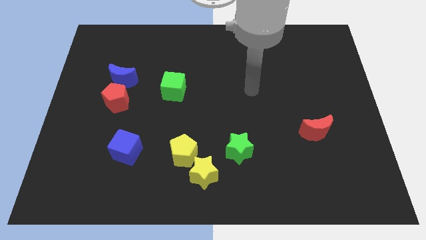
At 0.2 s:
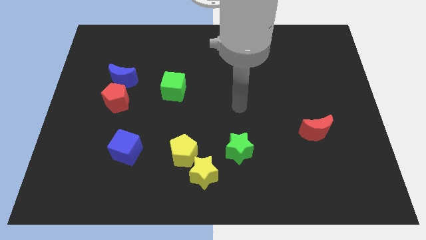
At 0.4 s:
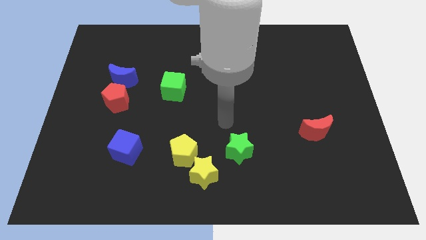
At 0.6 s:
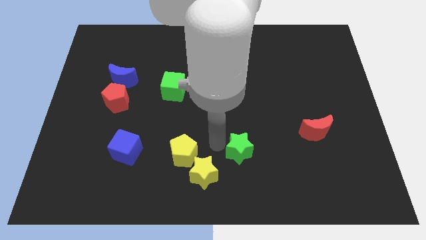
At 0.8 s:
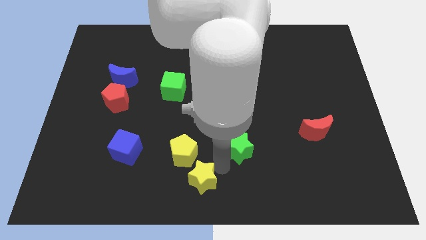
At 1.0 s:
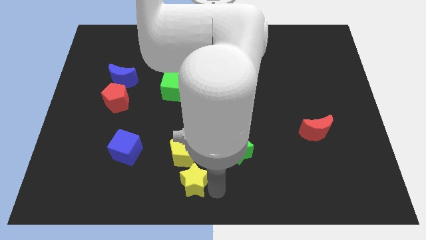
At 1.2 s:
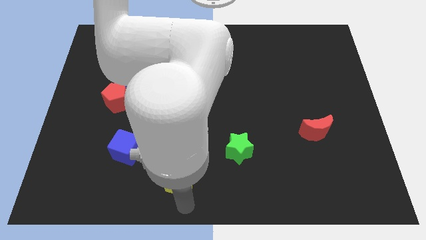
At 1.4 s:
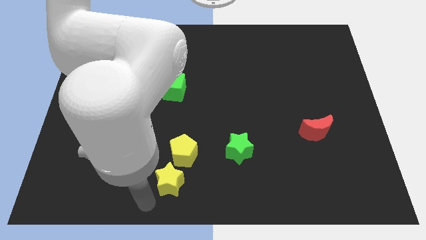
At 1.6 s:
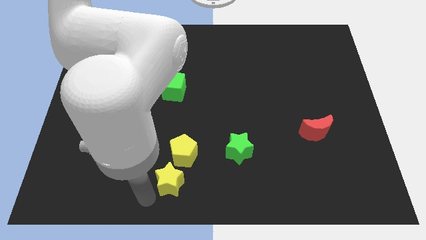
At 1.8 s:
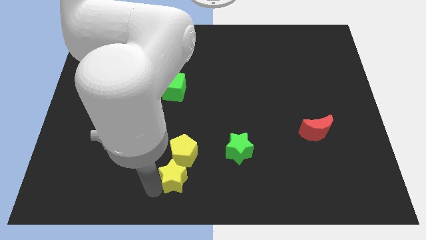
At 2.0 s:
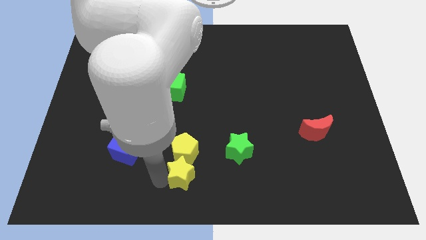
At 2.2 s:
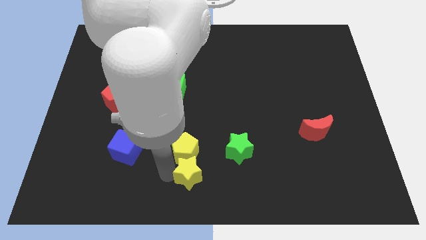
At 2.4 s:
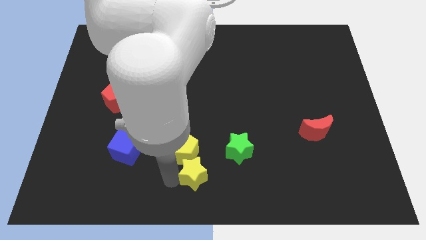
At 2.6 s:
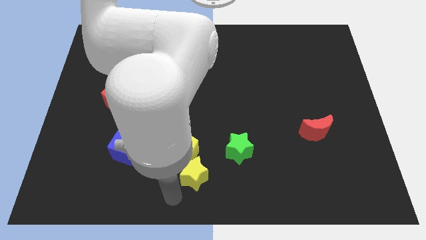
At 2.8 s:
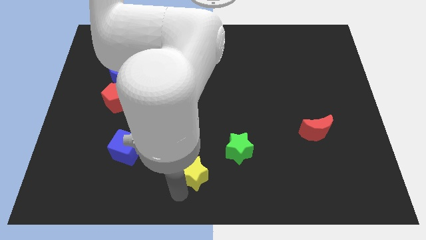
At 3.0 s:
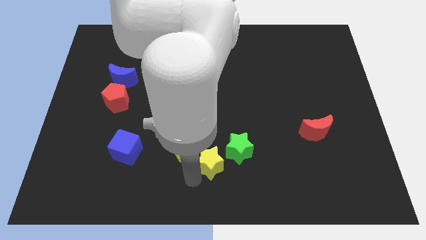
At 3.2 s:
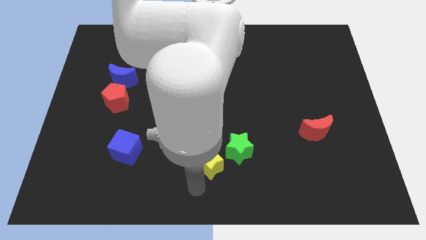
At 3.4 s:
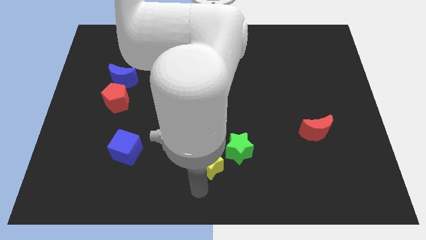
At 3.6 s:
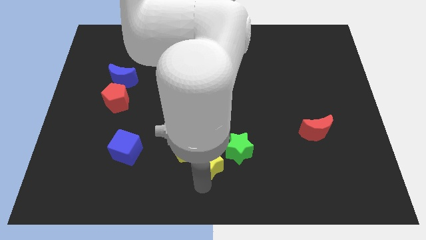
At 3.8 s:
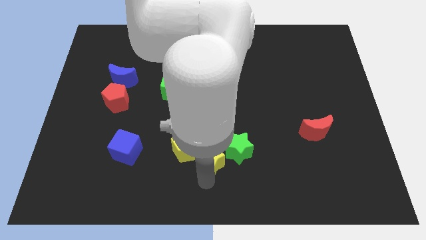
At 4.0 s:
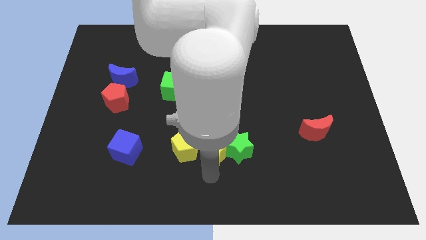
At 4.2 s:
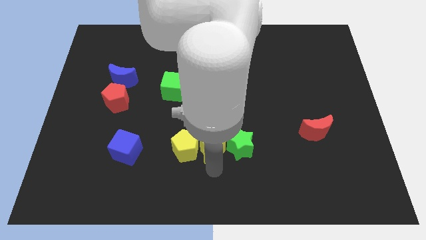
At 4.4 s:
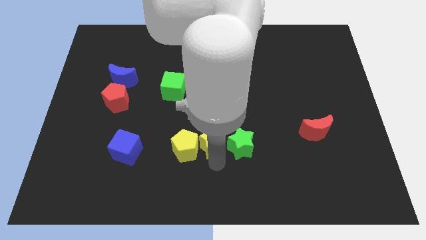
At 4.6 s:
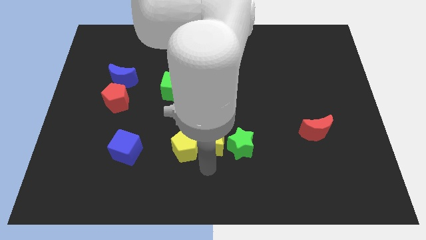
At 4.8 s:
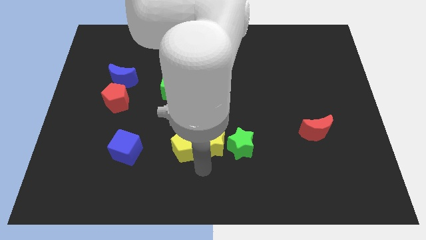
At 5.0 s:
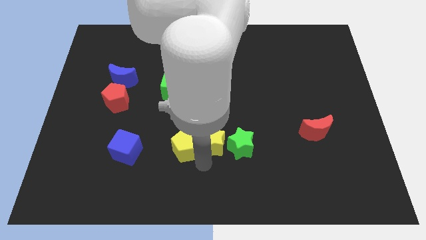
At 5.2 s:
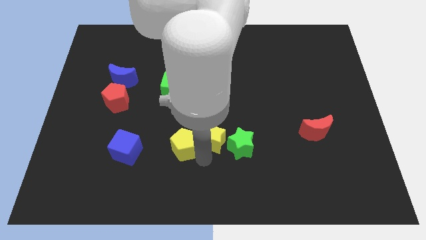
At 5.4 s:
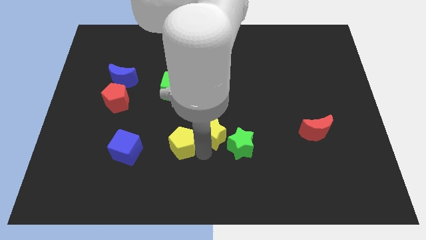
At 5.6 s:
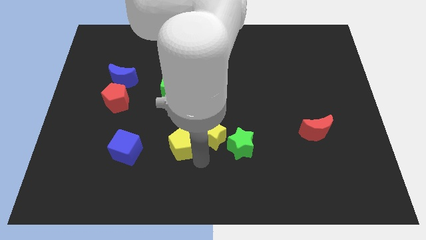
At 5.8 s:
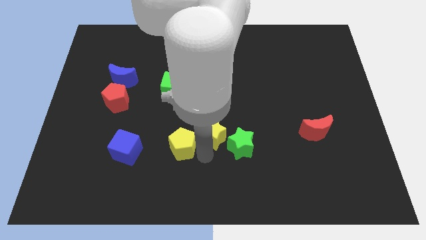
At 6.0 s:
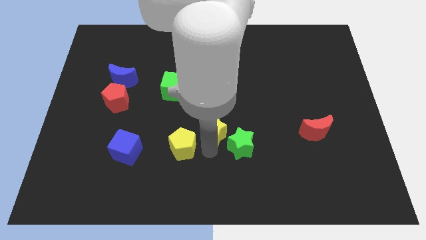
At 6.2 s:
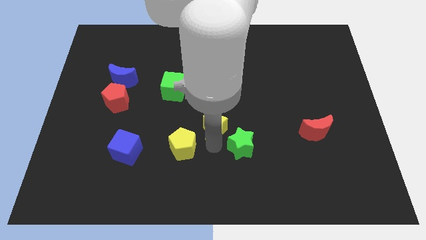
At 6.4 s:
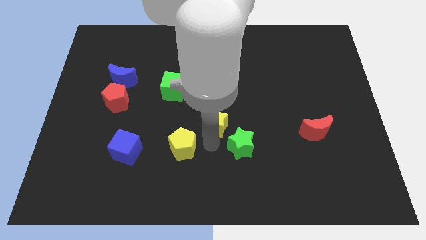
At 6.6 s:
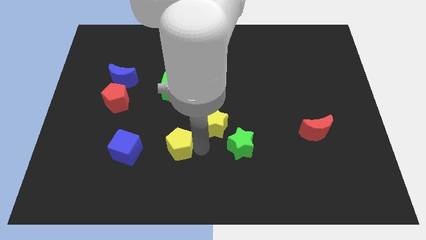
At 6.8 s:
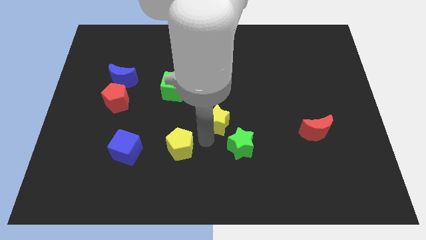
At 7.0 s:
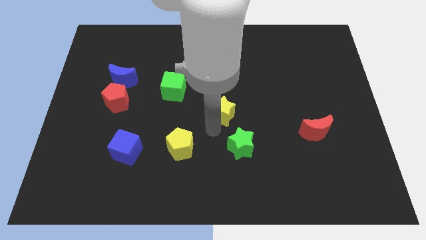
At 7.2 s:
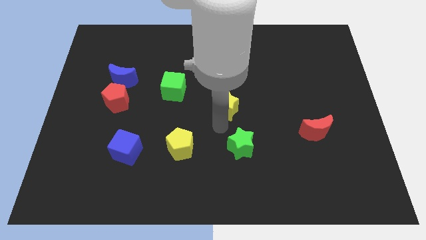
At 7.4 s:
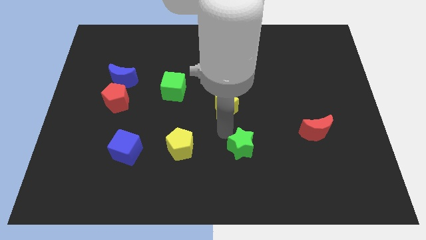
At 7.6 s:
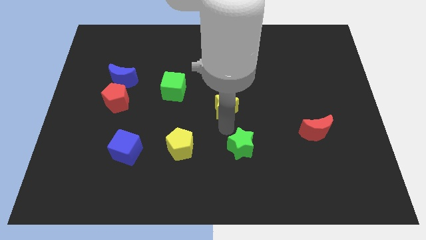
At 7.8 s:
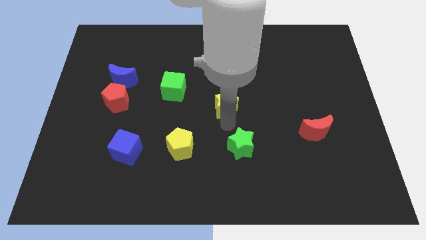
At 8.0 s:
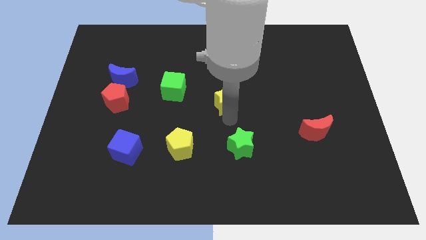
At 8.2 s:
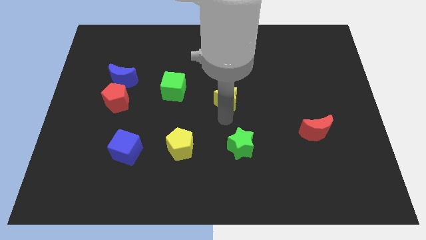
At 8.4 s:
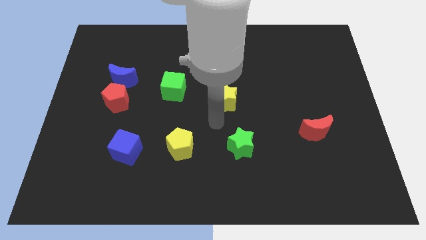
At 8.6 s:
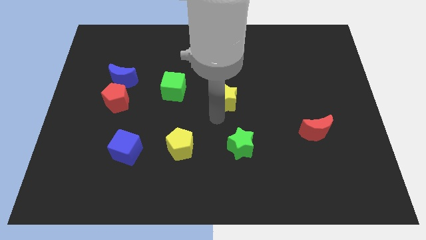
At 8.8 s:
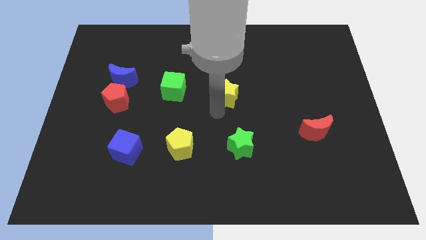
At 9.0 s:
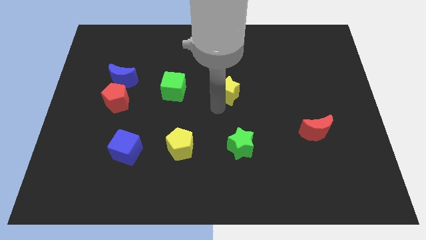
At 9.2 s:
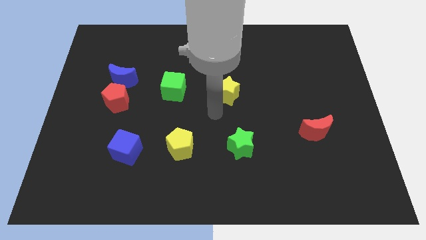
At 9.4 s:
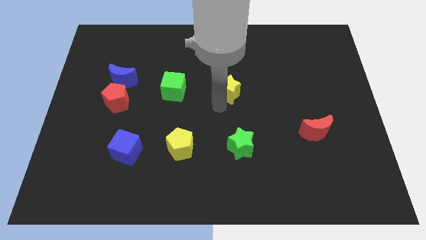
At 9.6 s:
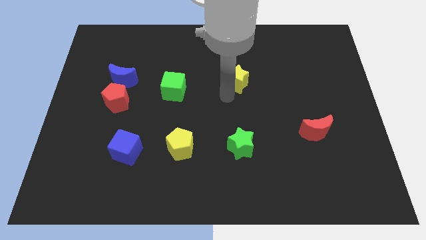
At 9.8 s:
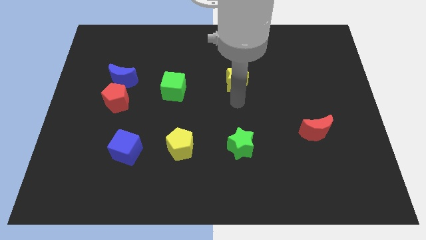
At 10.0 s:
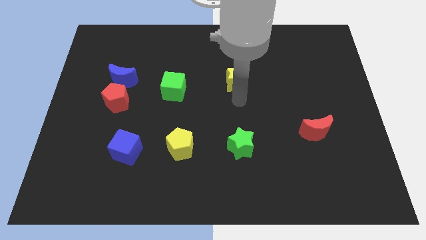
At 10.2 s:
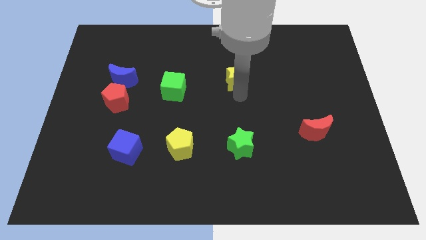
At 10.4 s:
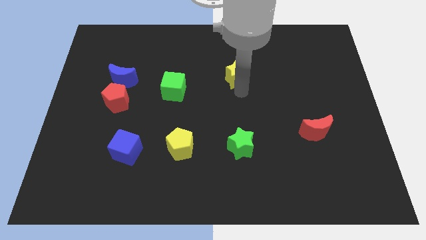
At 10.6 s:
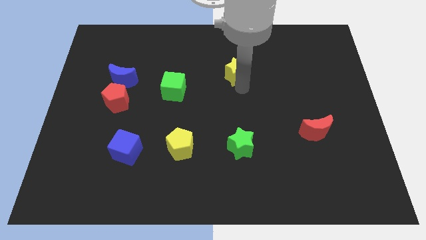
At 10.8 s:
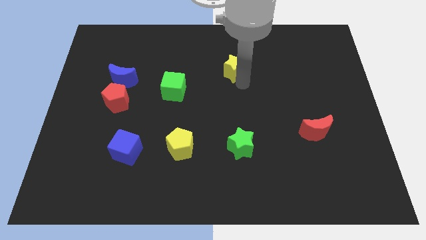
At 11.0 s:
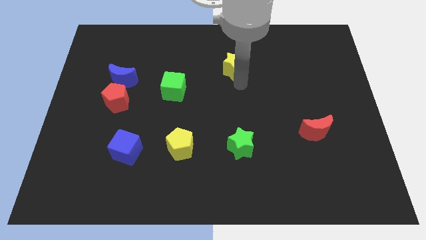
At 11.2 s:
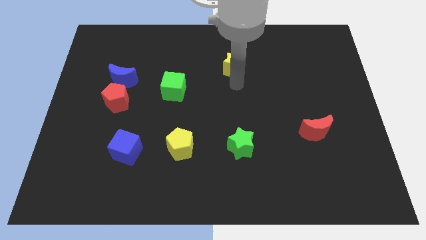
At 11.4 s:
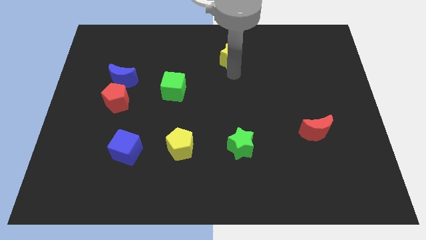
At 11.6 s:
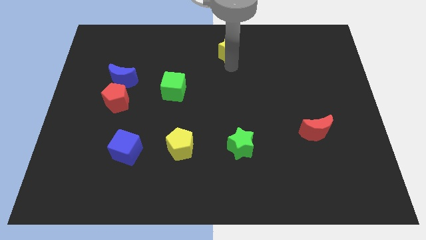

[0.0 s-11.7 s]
push the yellow star to the towards your base

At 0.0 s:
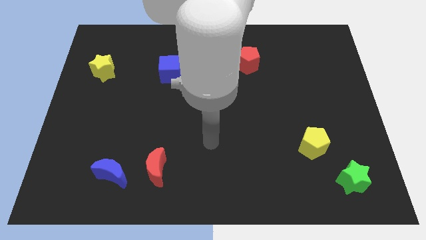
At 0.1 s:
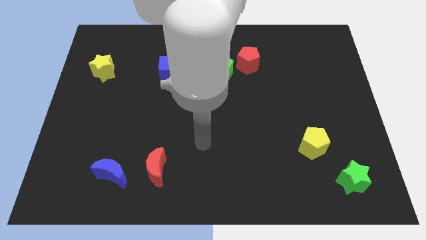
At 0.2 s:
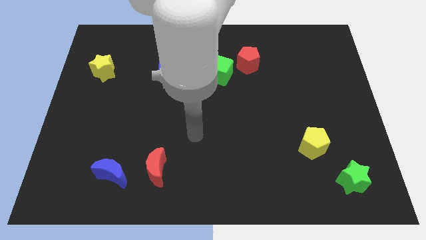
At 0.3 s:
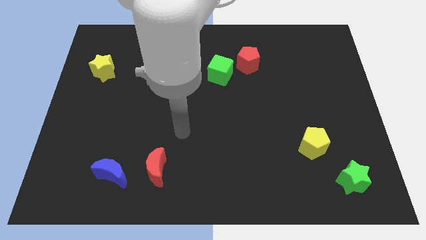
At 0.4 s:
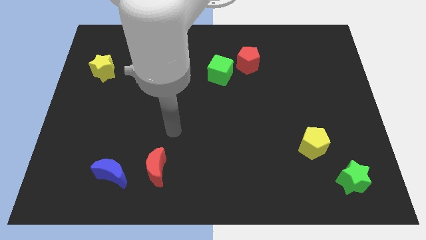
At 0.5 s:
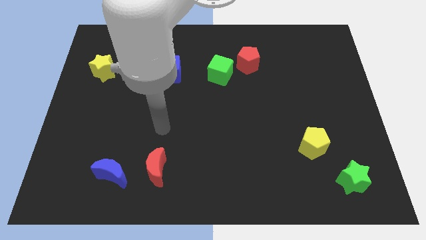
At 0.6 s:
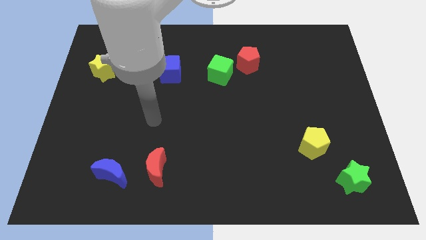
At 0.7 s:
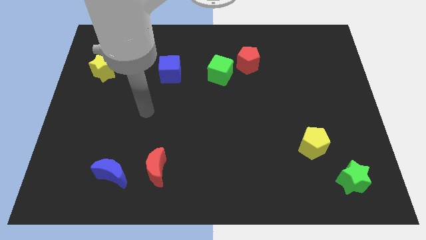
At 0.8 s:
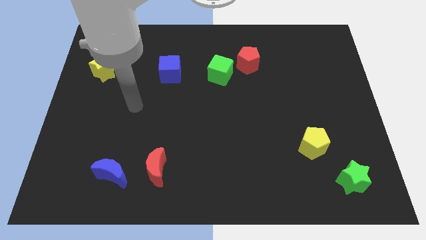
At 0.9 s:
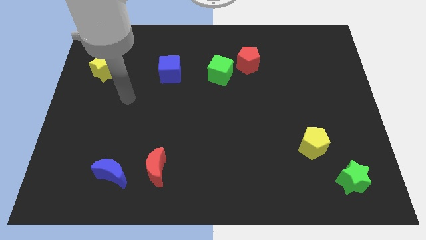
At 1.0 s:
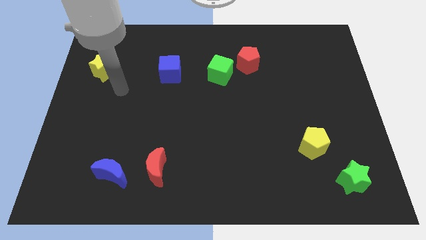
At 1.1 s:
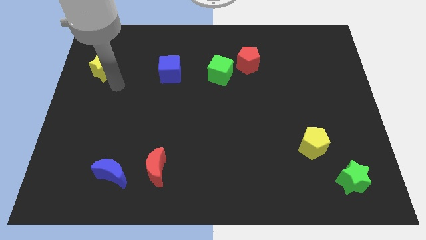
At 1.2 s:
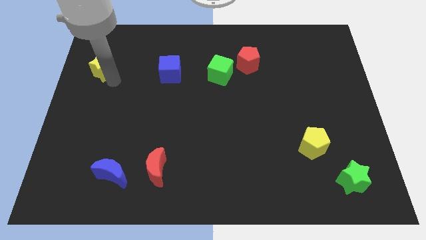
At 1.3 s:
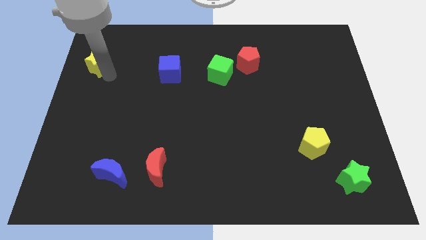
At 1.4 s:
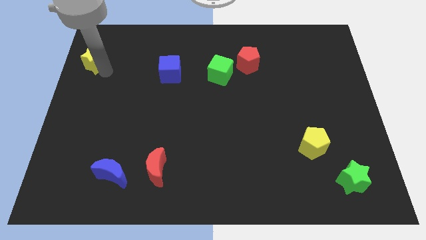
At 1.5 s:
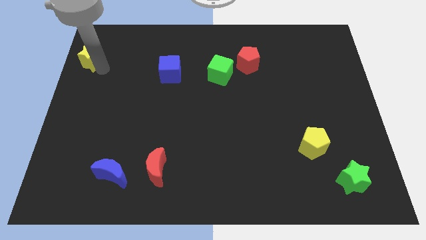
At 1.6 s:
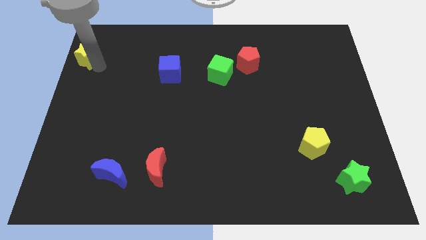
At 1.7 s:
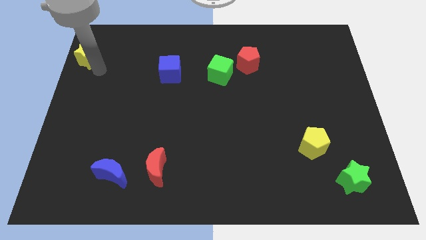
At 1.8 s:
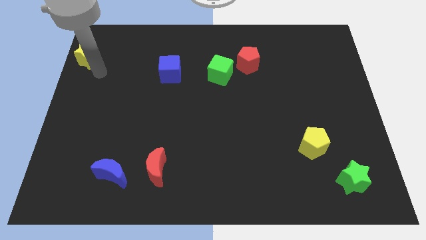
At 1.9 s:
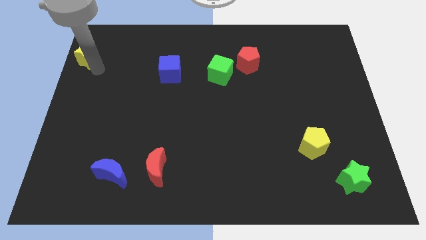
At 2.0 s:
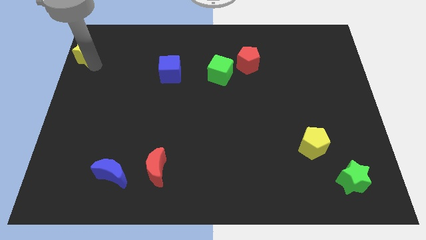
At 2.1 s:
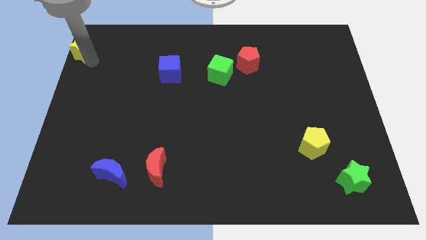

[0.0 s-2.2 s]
push the yellow star to the top left
